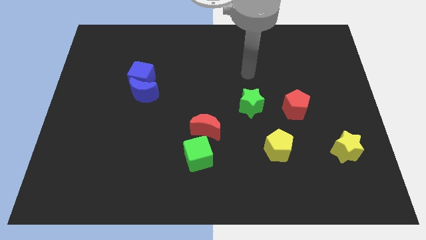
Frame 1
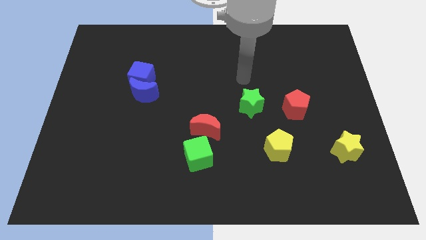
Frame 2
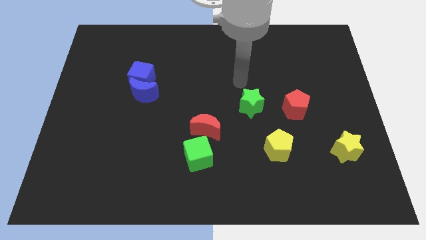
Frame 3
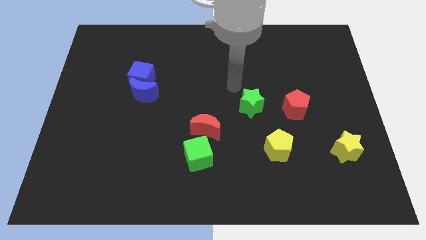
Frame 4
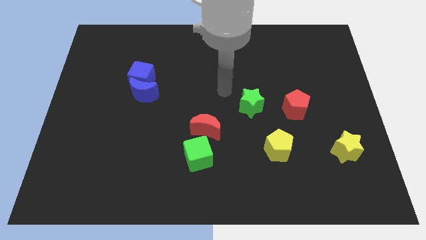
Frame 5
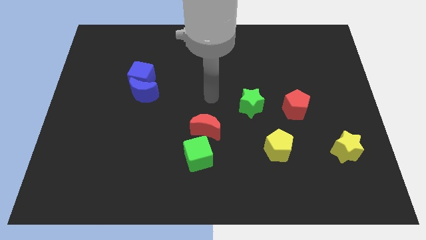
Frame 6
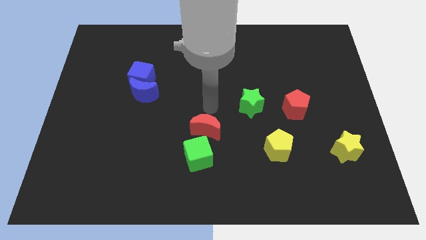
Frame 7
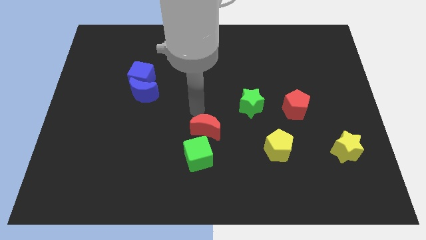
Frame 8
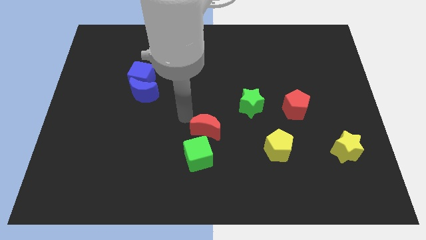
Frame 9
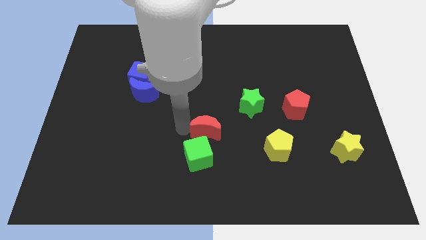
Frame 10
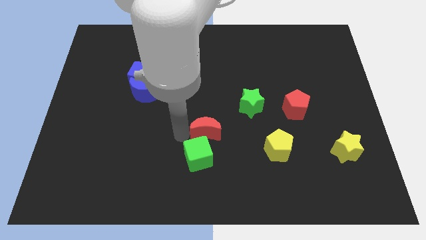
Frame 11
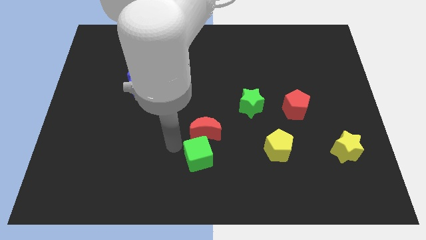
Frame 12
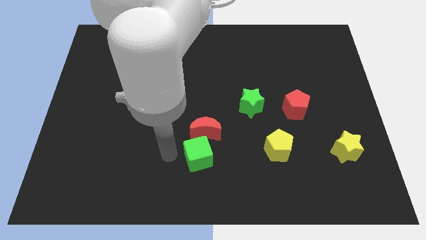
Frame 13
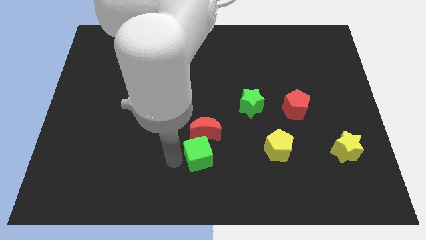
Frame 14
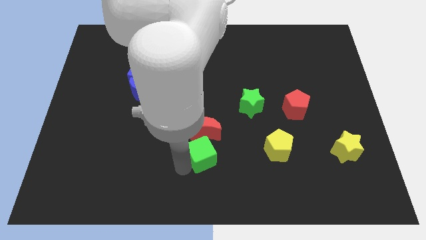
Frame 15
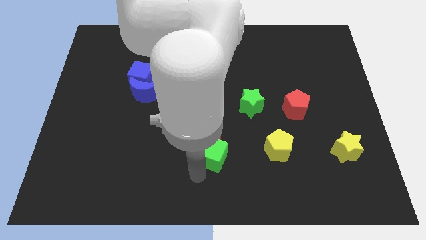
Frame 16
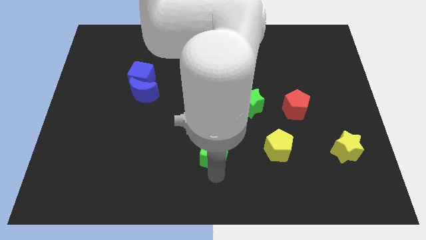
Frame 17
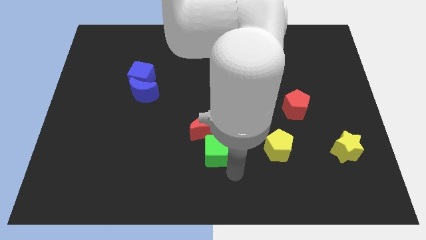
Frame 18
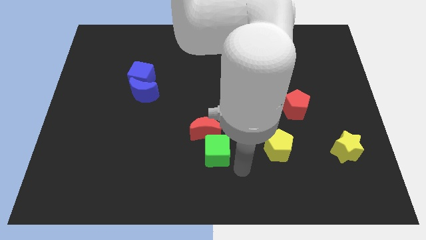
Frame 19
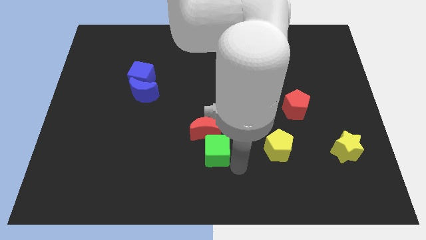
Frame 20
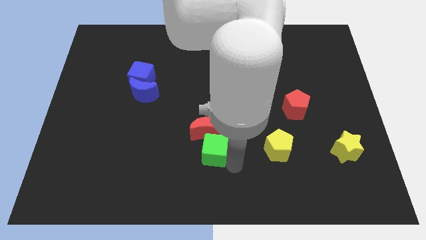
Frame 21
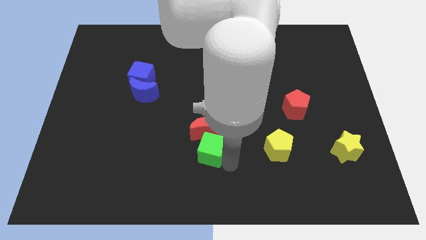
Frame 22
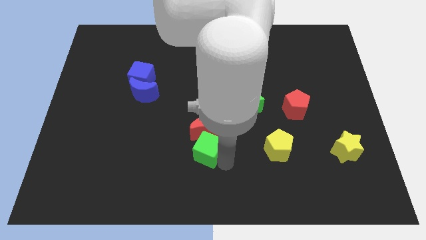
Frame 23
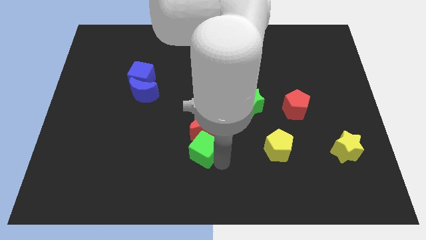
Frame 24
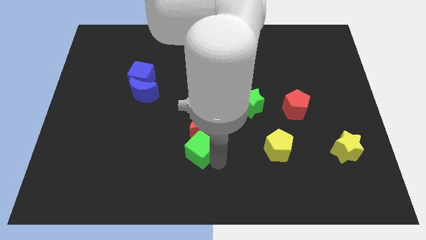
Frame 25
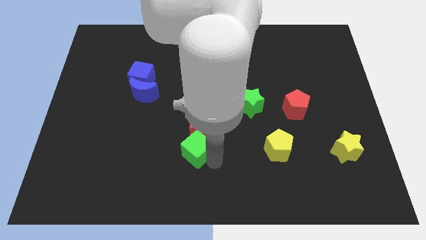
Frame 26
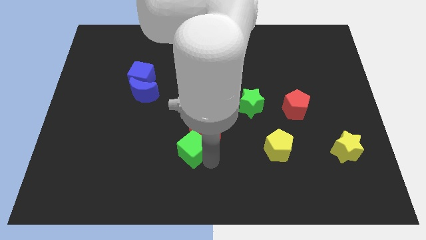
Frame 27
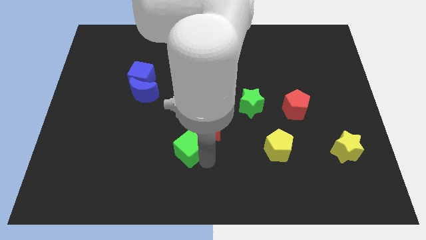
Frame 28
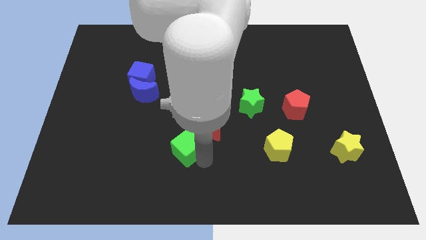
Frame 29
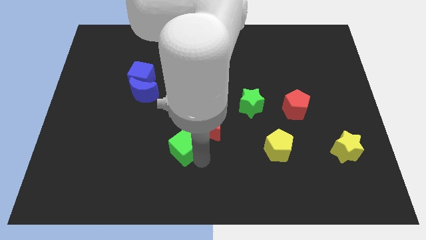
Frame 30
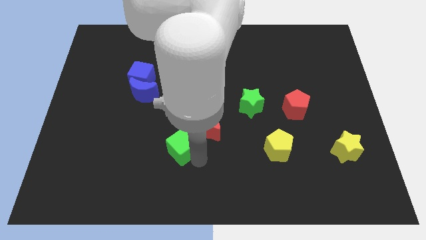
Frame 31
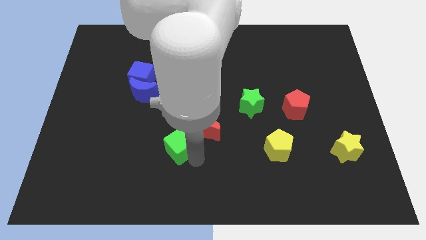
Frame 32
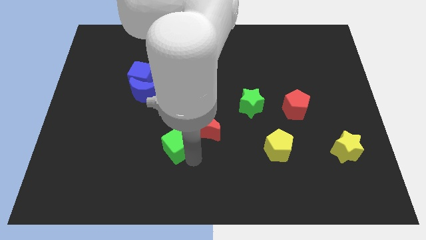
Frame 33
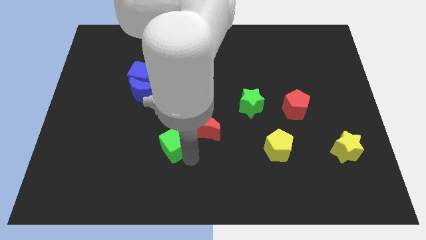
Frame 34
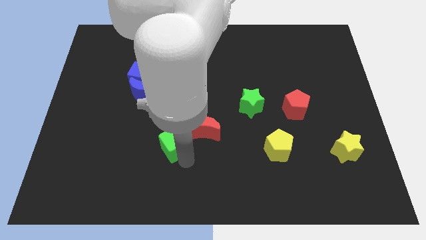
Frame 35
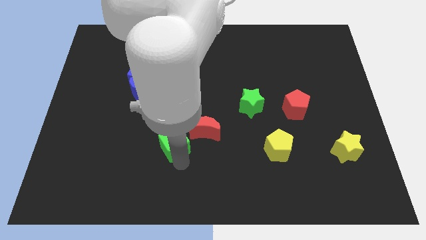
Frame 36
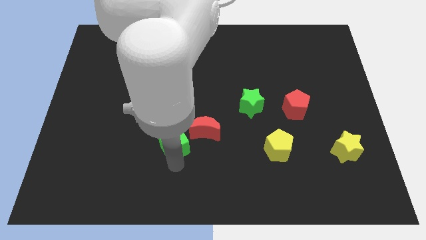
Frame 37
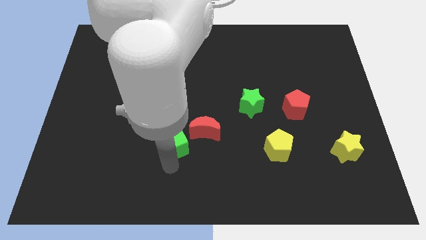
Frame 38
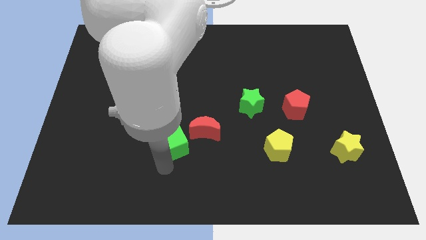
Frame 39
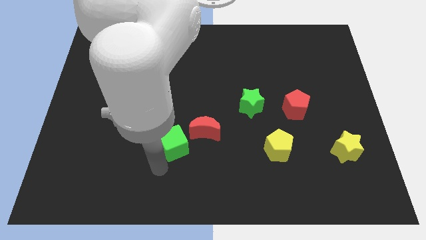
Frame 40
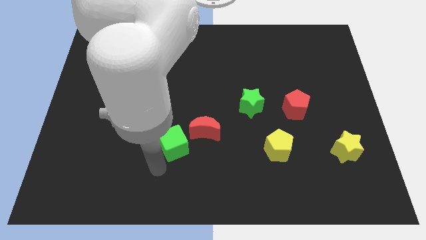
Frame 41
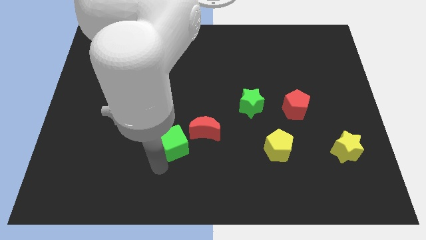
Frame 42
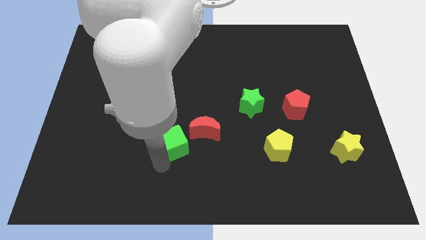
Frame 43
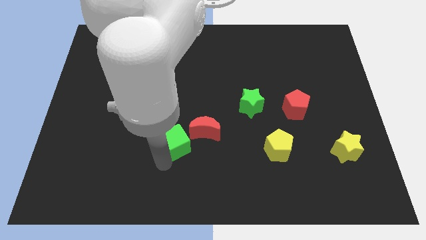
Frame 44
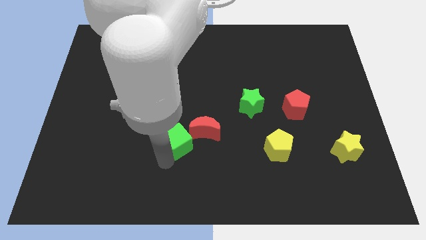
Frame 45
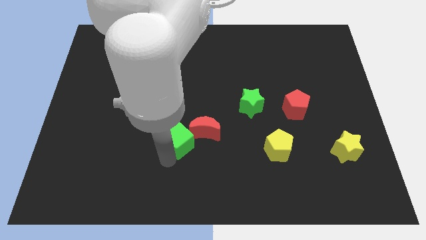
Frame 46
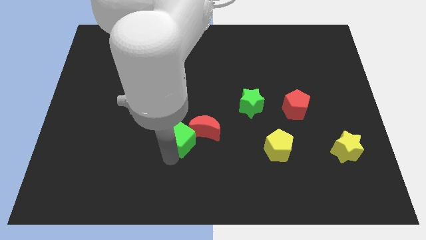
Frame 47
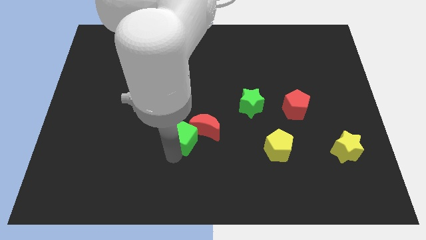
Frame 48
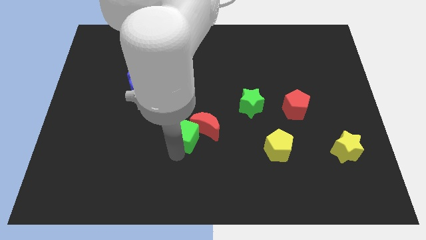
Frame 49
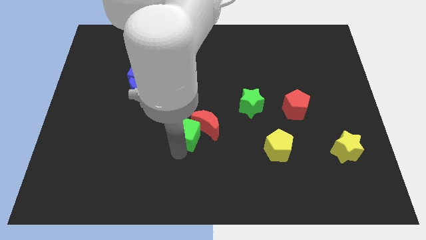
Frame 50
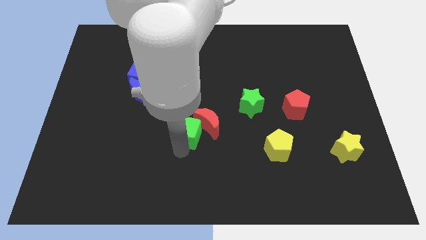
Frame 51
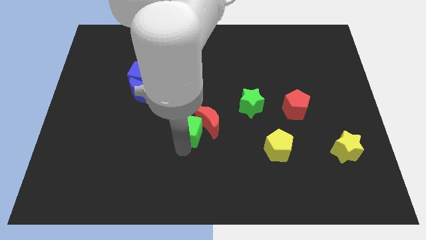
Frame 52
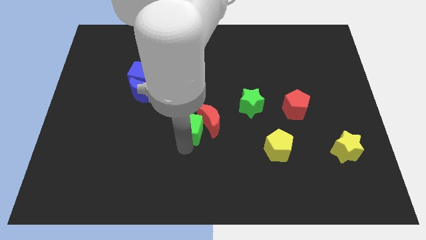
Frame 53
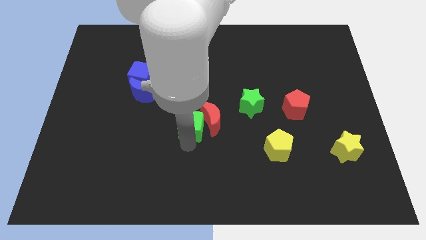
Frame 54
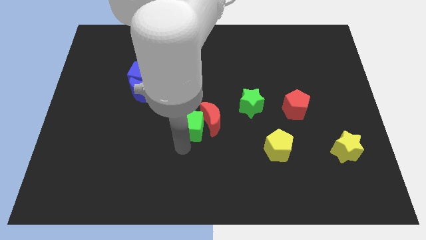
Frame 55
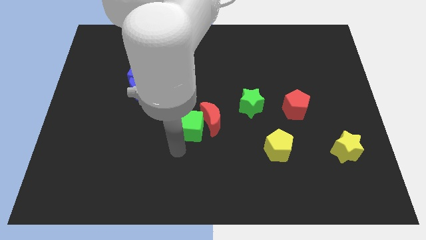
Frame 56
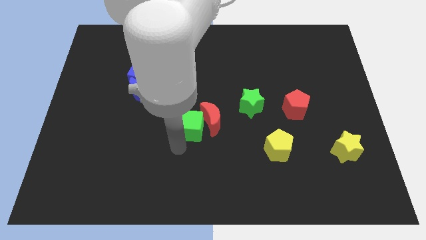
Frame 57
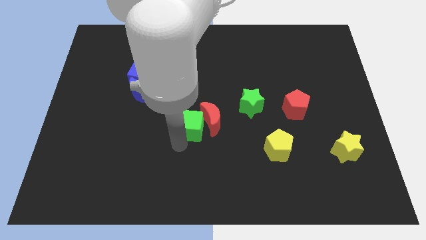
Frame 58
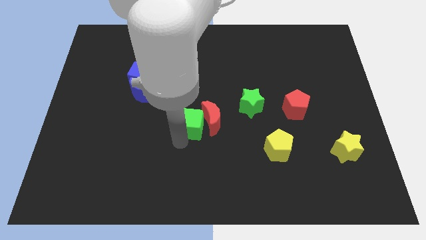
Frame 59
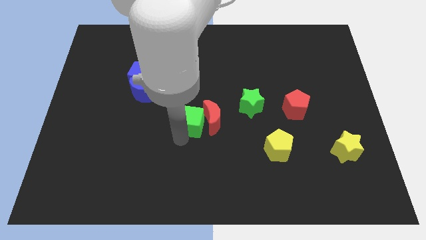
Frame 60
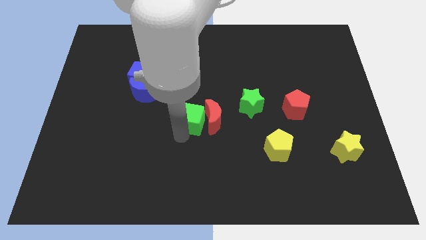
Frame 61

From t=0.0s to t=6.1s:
slide the green cube left of the green star

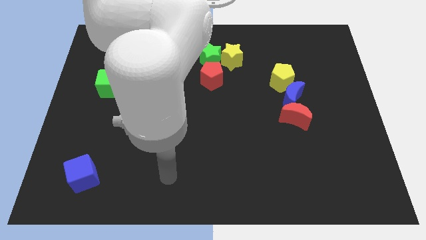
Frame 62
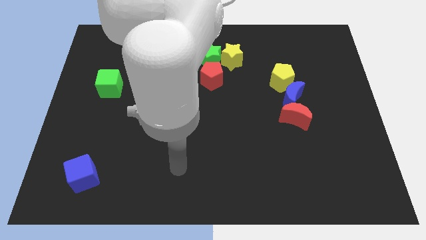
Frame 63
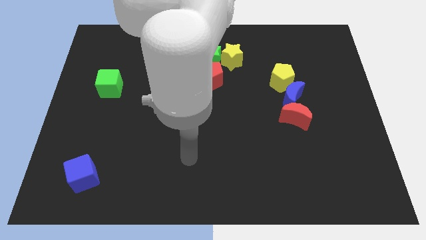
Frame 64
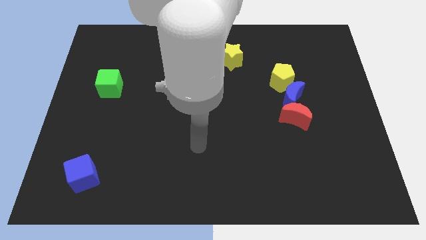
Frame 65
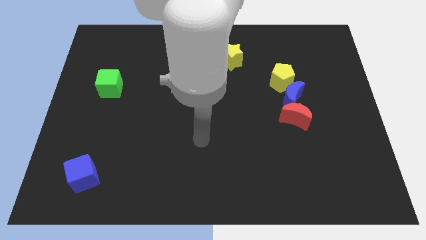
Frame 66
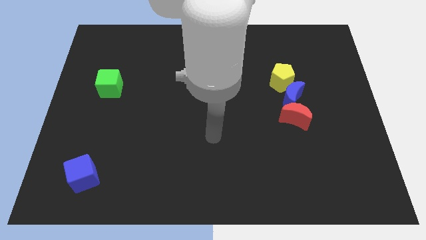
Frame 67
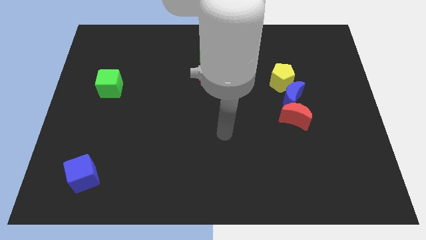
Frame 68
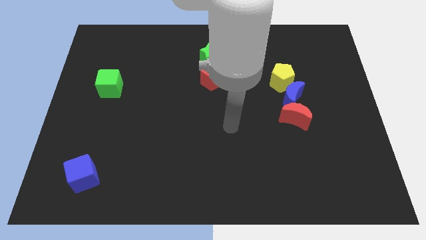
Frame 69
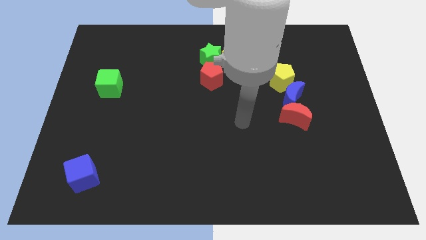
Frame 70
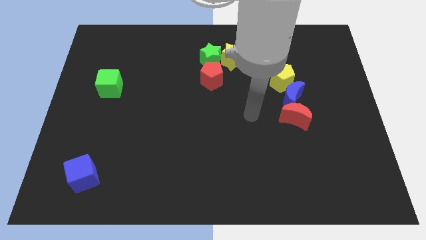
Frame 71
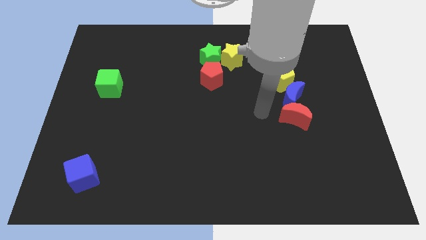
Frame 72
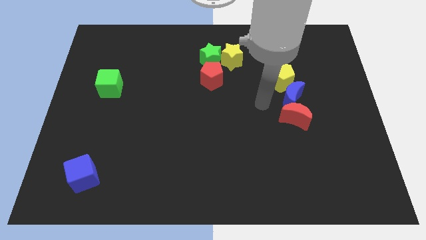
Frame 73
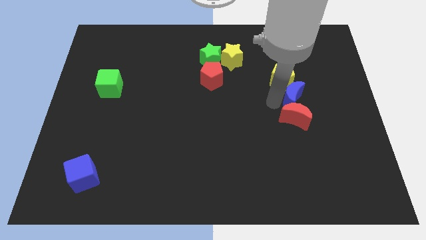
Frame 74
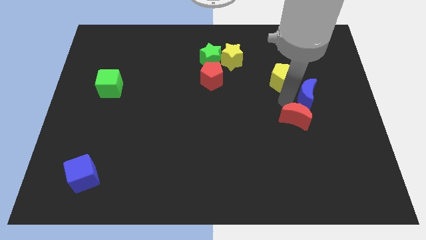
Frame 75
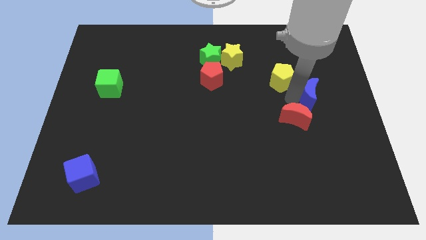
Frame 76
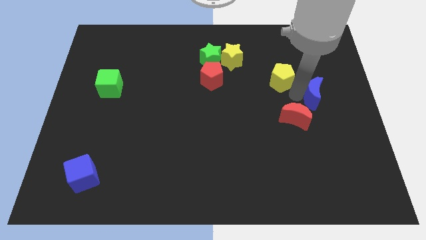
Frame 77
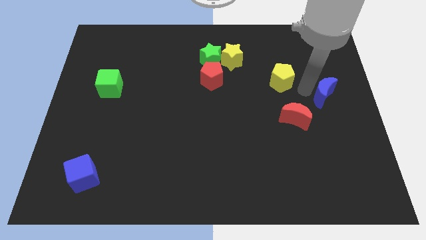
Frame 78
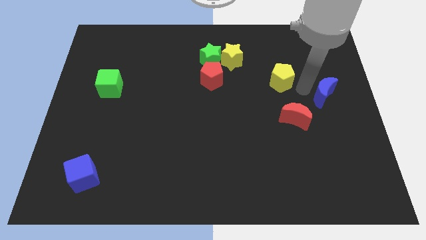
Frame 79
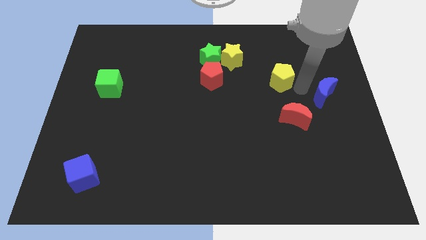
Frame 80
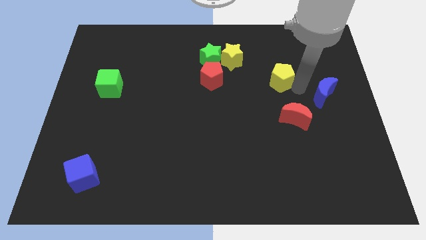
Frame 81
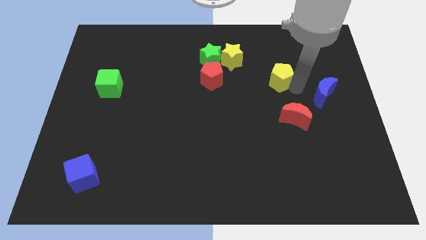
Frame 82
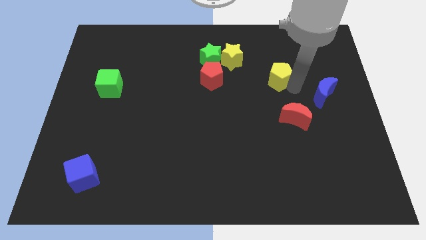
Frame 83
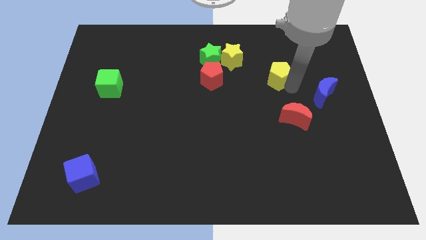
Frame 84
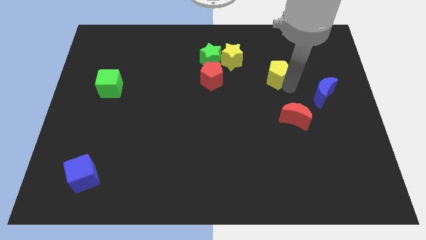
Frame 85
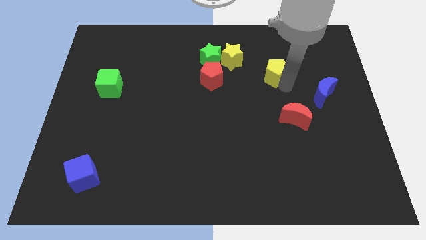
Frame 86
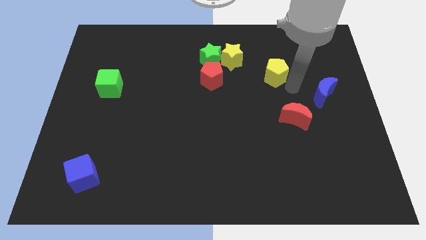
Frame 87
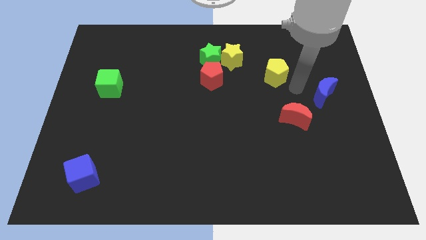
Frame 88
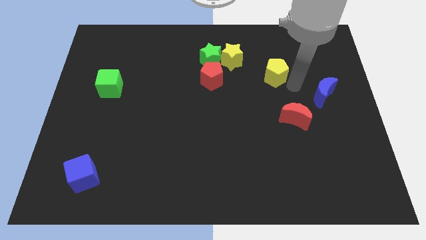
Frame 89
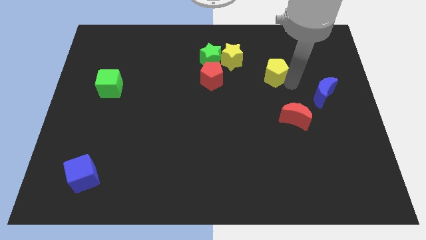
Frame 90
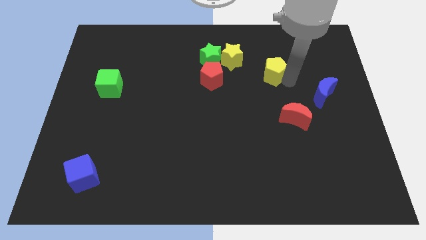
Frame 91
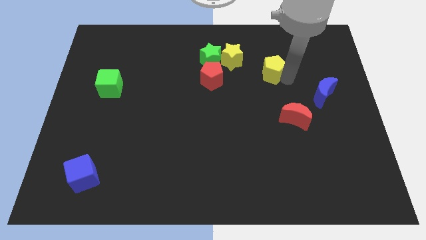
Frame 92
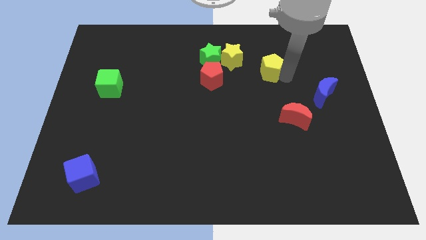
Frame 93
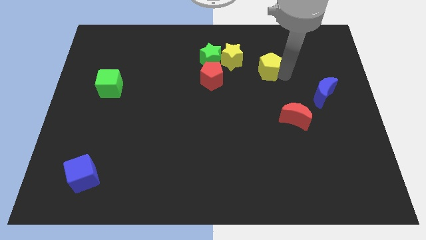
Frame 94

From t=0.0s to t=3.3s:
put the yellow pentagon right of the green star
